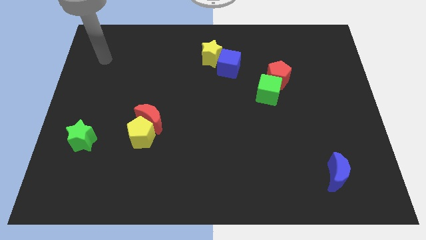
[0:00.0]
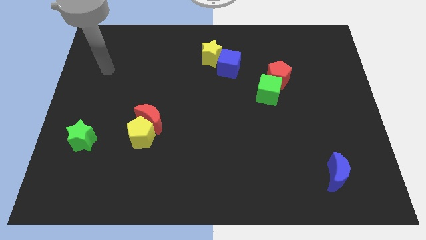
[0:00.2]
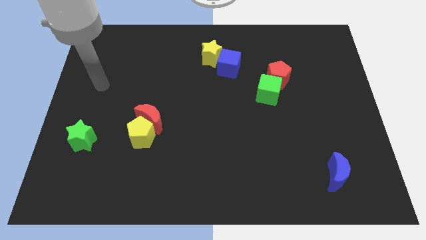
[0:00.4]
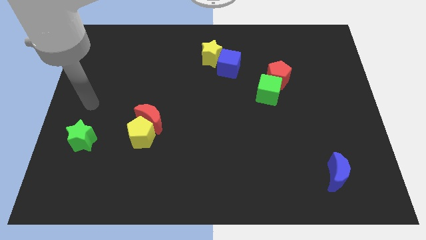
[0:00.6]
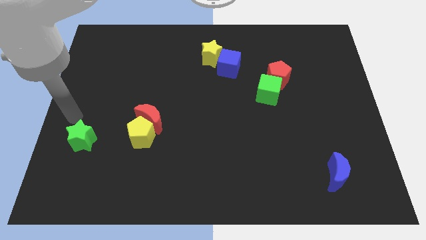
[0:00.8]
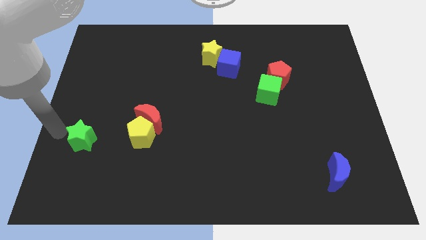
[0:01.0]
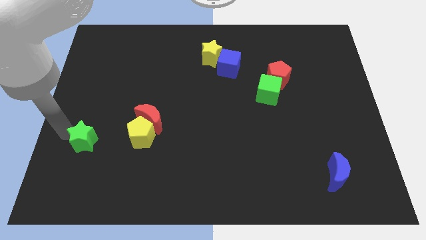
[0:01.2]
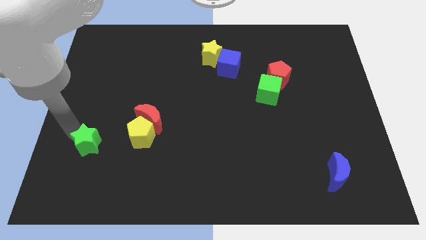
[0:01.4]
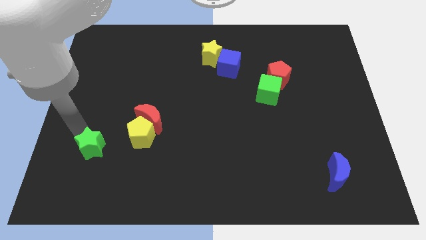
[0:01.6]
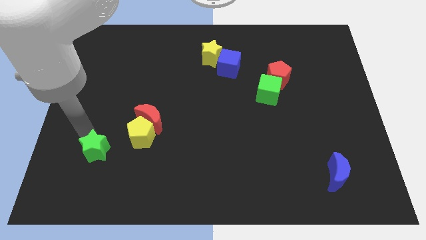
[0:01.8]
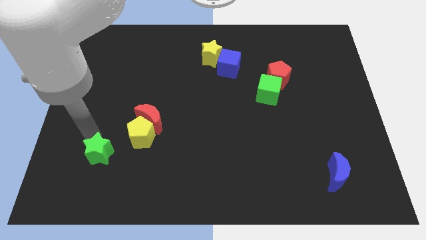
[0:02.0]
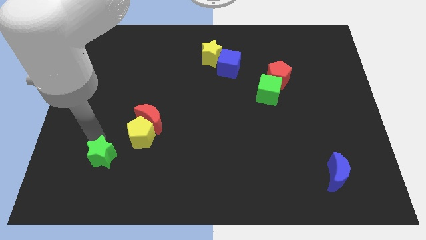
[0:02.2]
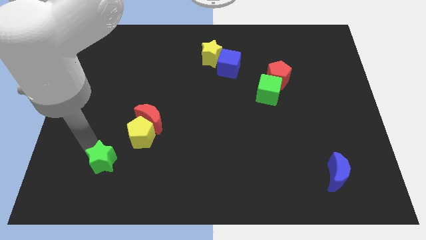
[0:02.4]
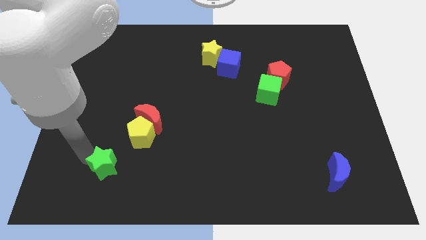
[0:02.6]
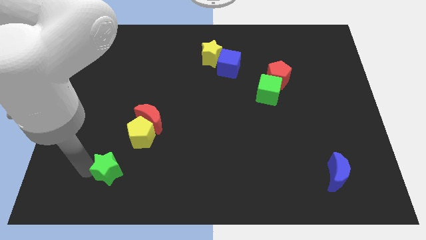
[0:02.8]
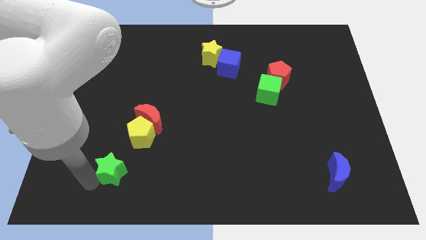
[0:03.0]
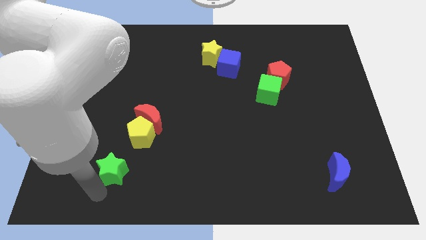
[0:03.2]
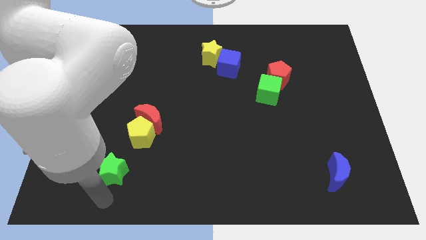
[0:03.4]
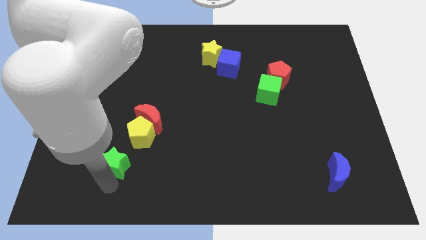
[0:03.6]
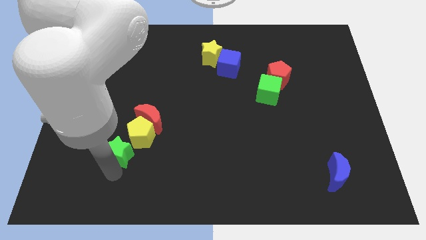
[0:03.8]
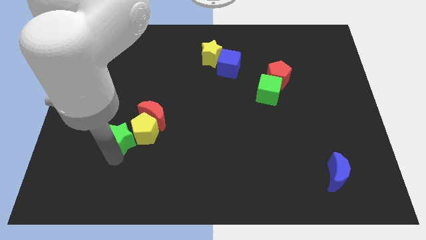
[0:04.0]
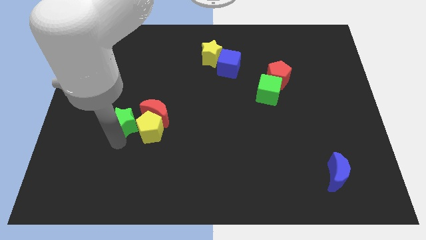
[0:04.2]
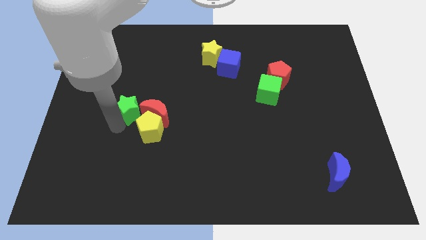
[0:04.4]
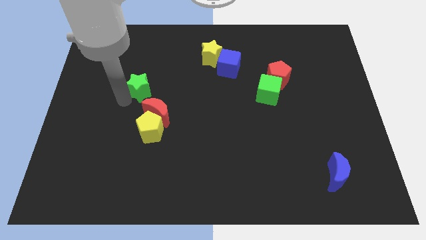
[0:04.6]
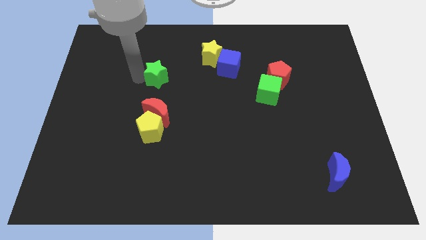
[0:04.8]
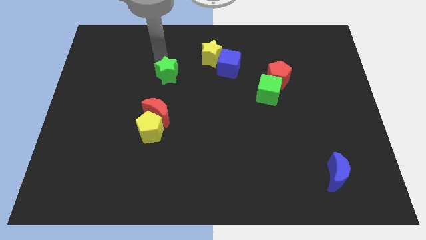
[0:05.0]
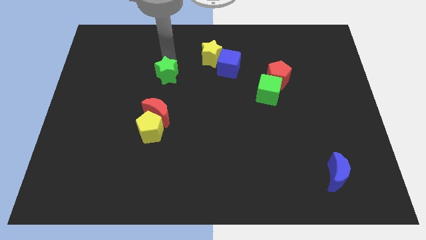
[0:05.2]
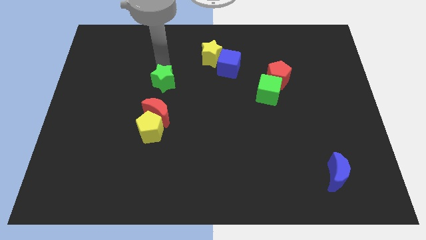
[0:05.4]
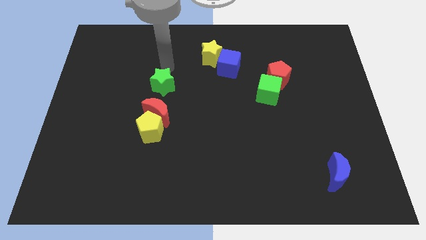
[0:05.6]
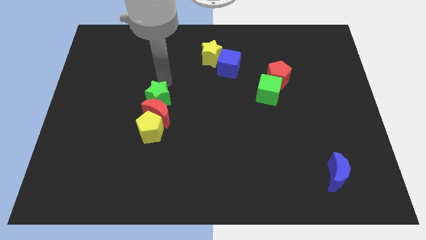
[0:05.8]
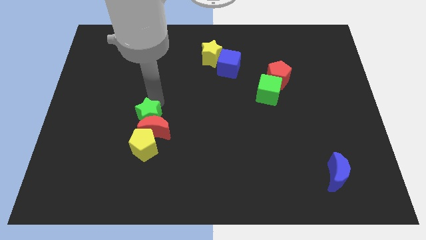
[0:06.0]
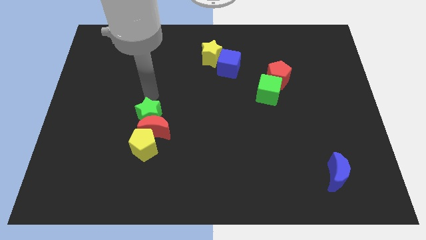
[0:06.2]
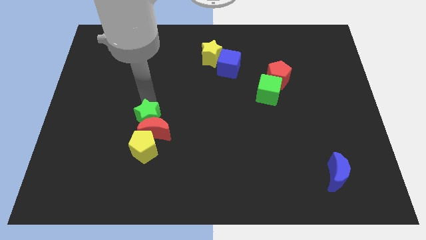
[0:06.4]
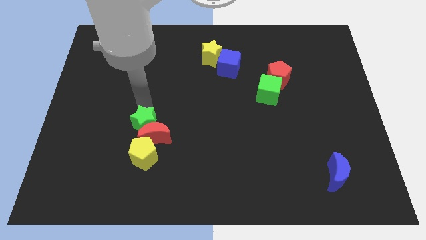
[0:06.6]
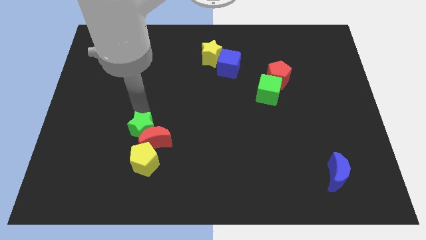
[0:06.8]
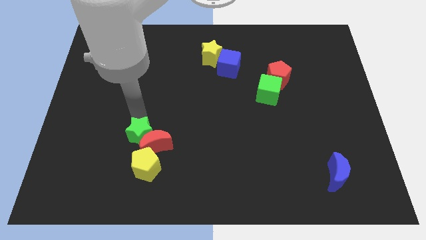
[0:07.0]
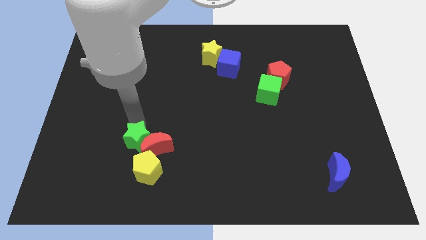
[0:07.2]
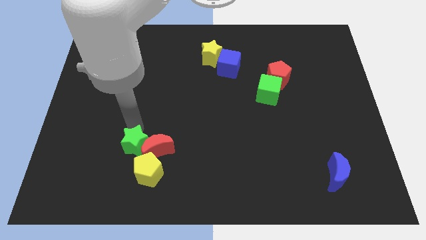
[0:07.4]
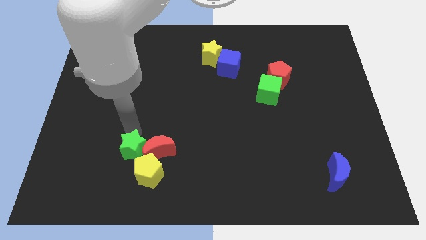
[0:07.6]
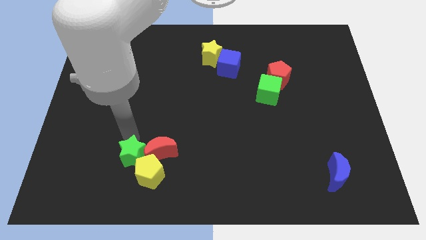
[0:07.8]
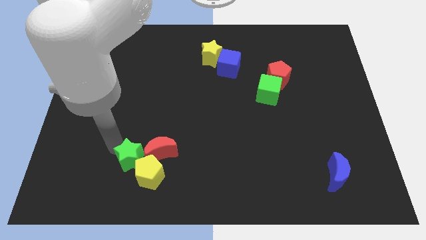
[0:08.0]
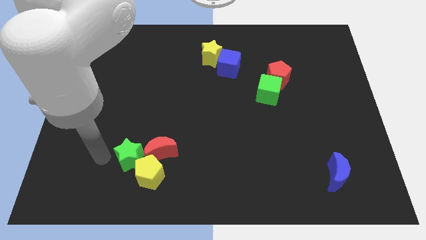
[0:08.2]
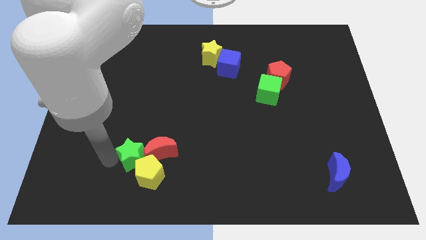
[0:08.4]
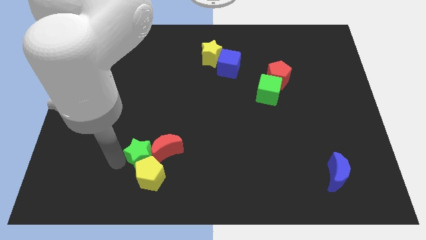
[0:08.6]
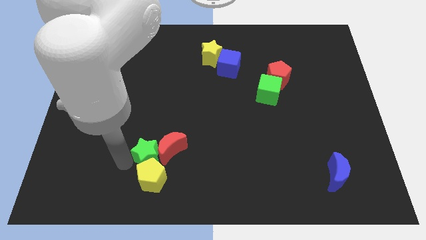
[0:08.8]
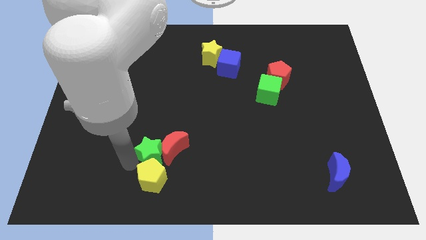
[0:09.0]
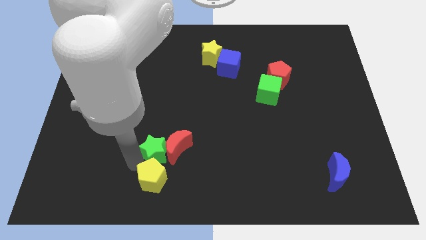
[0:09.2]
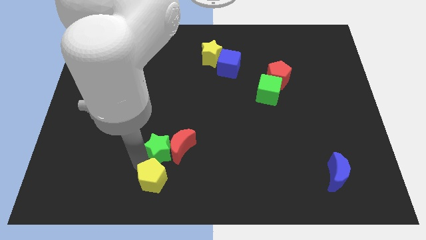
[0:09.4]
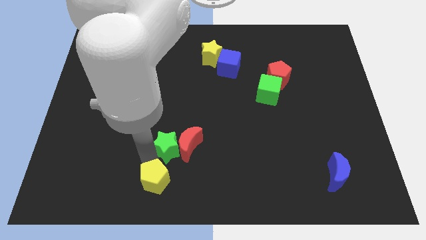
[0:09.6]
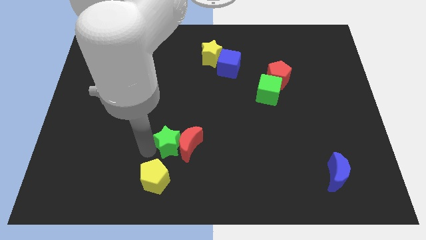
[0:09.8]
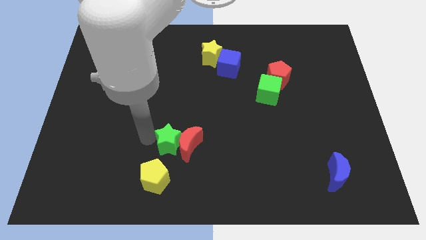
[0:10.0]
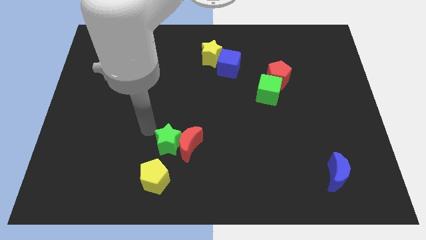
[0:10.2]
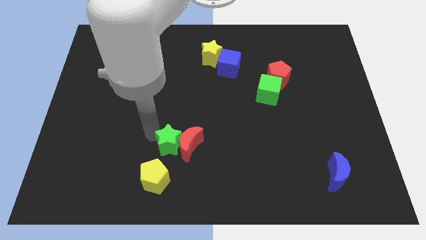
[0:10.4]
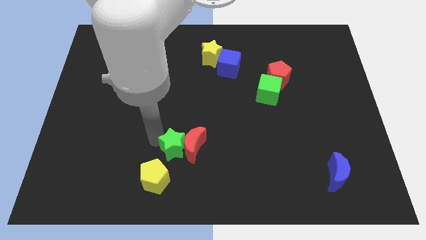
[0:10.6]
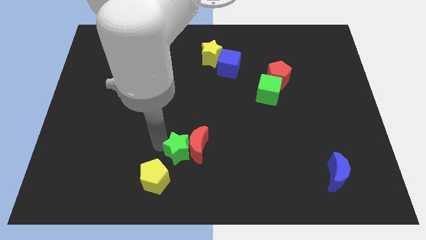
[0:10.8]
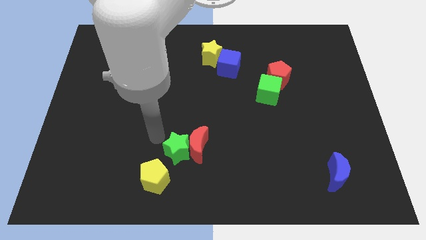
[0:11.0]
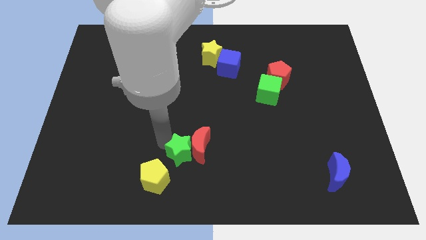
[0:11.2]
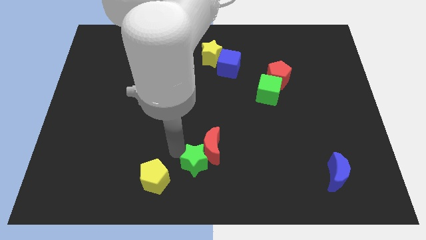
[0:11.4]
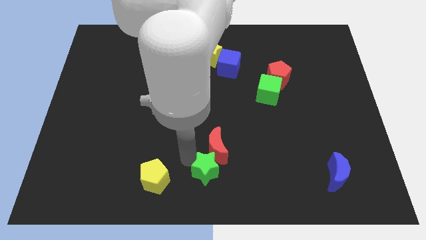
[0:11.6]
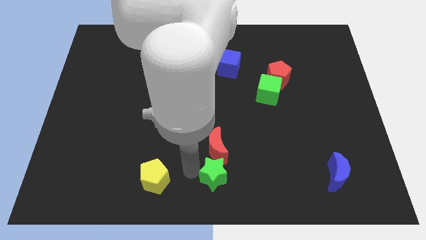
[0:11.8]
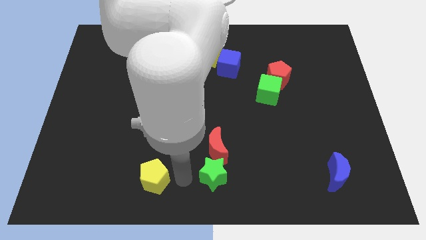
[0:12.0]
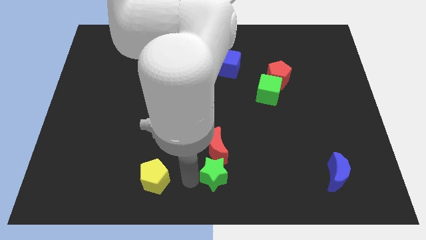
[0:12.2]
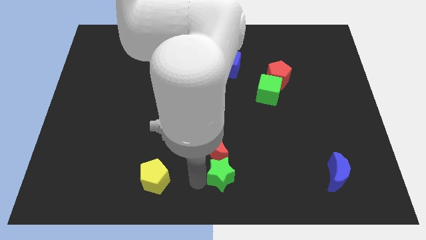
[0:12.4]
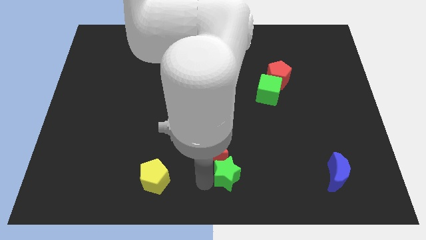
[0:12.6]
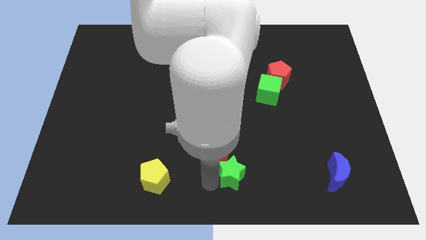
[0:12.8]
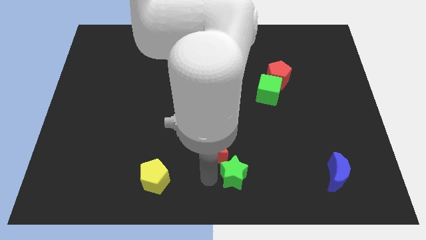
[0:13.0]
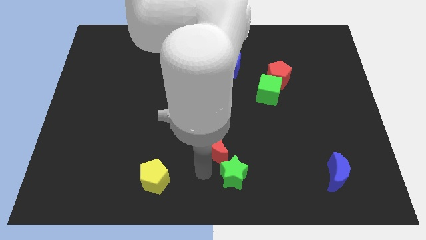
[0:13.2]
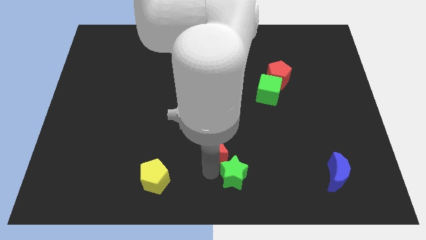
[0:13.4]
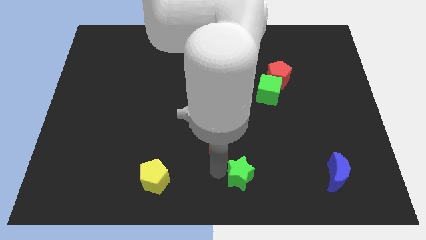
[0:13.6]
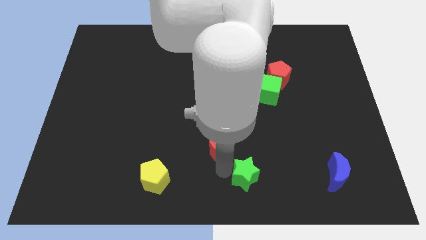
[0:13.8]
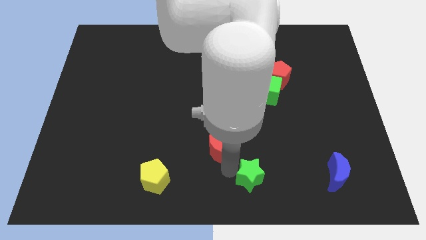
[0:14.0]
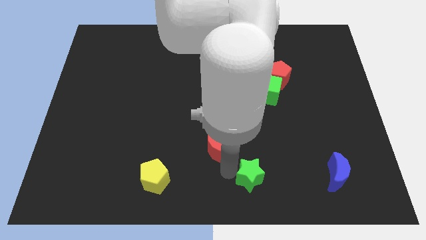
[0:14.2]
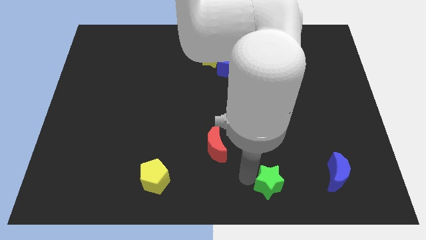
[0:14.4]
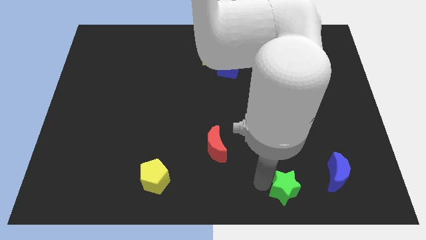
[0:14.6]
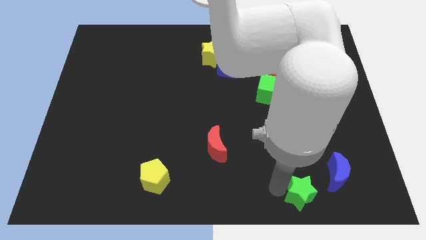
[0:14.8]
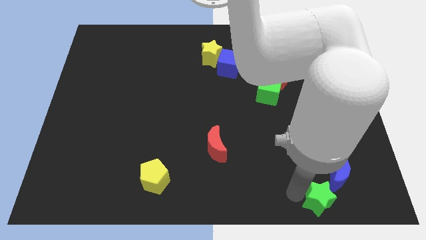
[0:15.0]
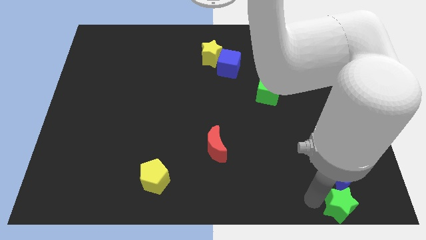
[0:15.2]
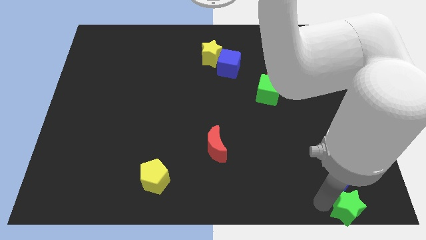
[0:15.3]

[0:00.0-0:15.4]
move the green star to the lower right corner
